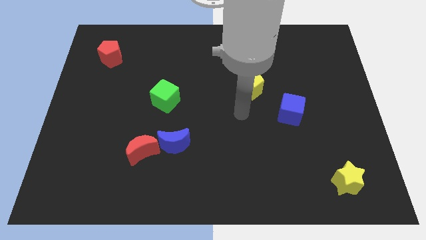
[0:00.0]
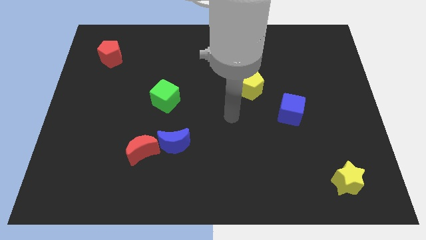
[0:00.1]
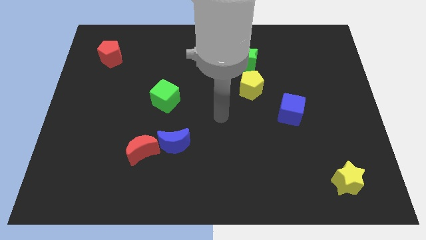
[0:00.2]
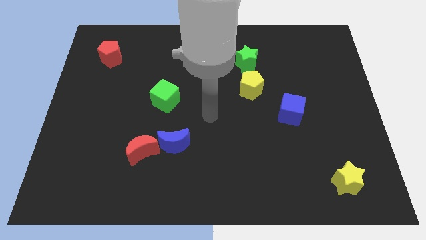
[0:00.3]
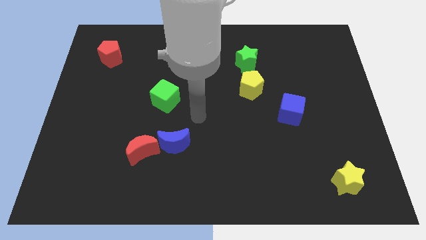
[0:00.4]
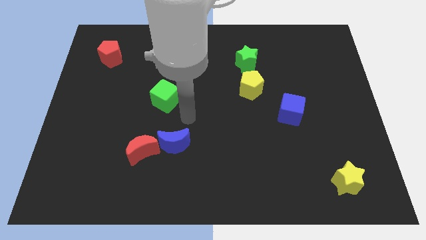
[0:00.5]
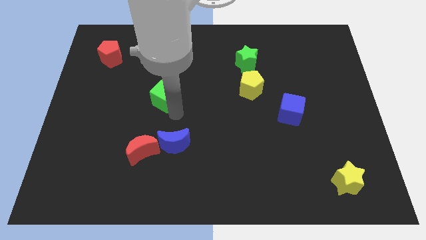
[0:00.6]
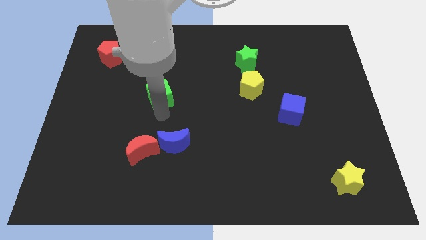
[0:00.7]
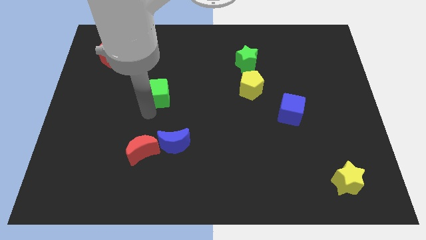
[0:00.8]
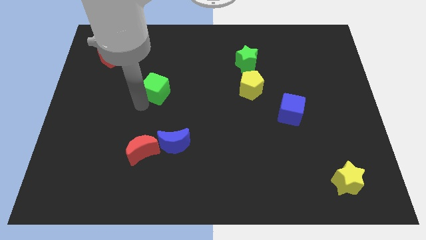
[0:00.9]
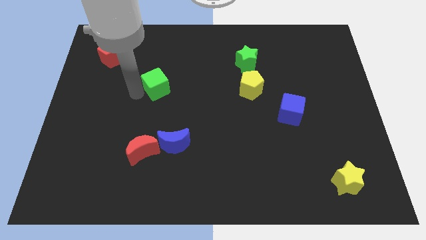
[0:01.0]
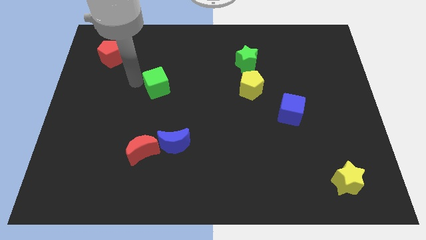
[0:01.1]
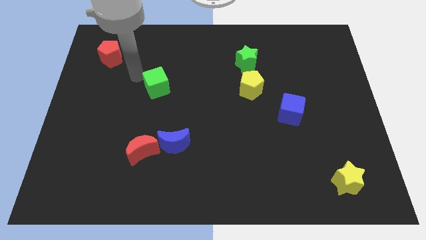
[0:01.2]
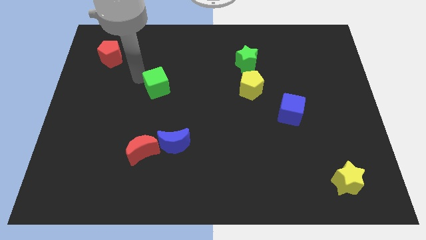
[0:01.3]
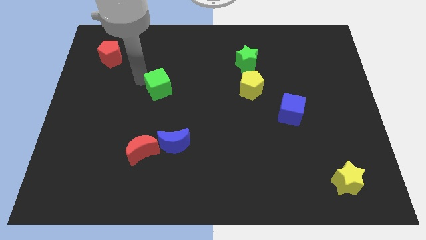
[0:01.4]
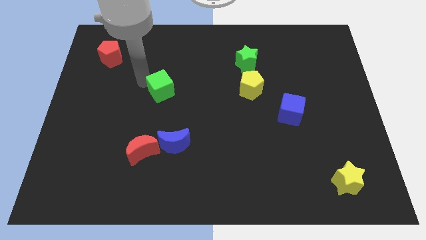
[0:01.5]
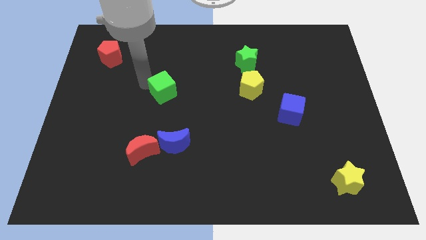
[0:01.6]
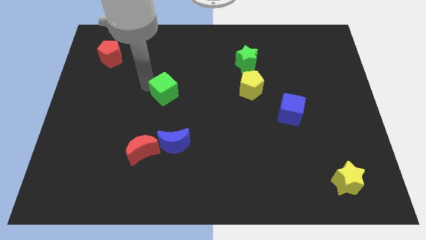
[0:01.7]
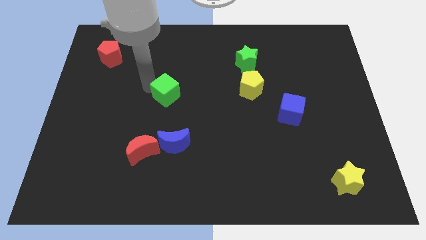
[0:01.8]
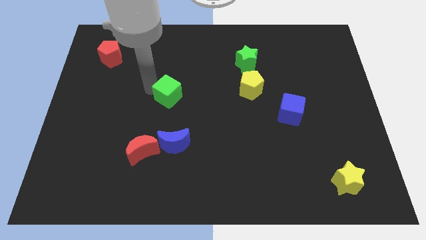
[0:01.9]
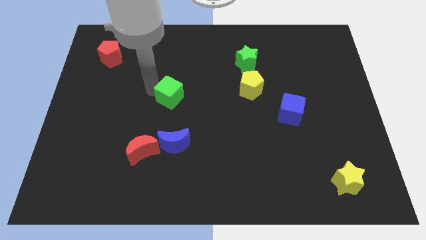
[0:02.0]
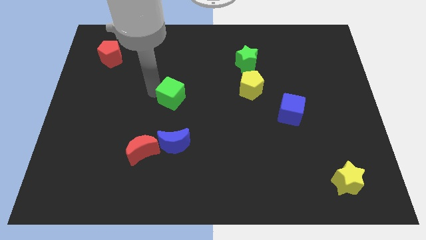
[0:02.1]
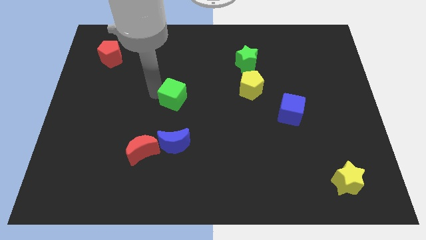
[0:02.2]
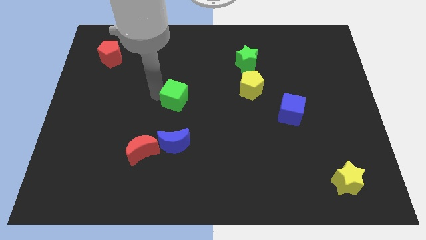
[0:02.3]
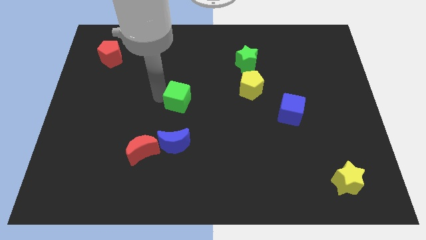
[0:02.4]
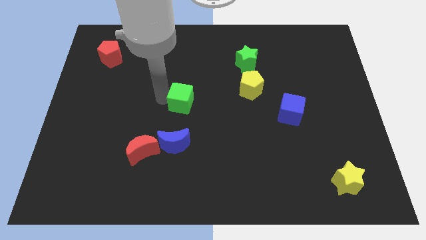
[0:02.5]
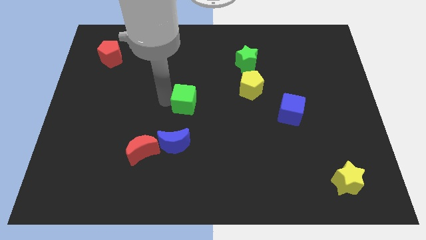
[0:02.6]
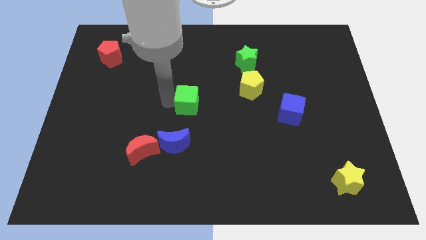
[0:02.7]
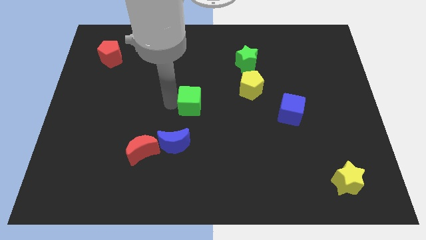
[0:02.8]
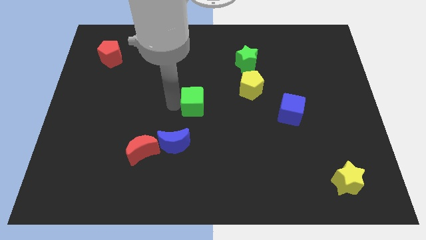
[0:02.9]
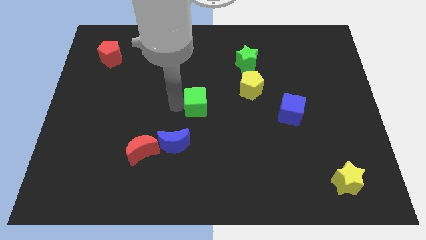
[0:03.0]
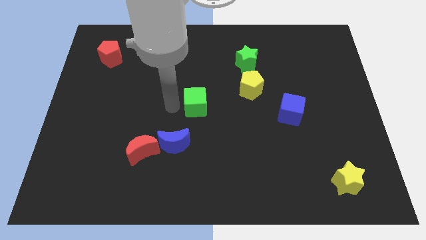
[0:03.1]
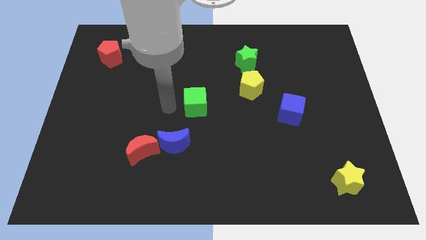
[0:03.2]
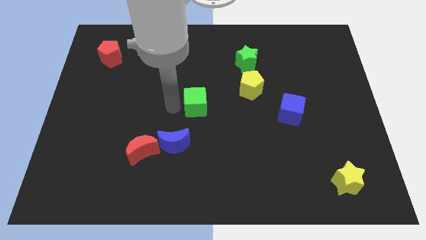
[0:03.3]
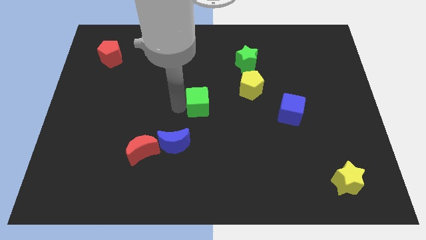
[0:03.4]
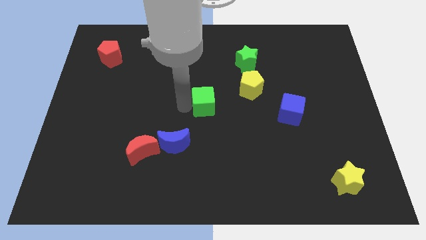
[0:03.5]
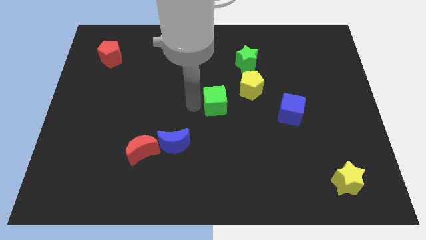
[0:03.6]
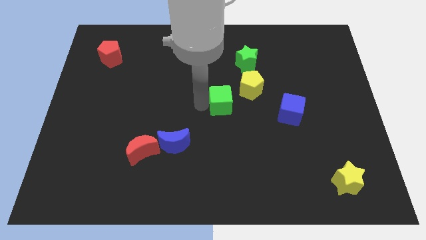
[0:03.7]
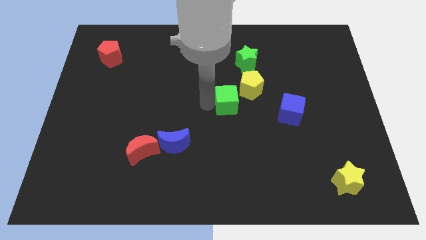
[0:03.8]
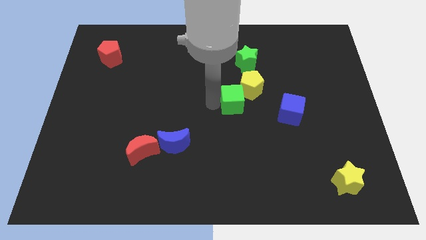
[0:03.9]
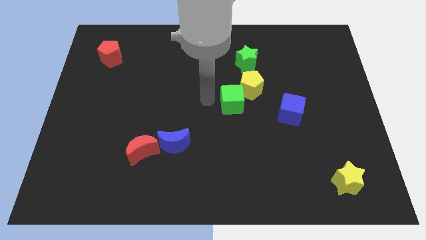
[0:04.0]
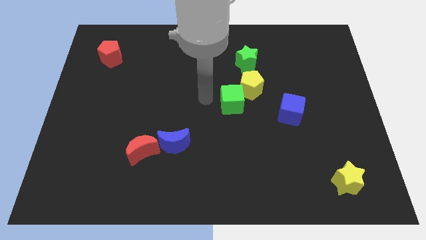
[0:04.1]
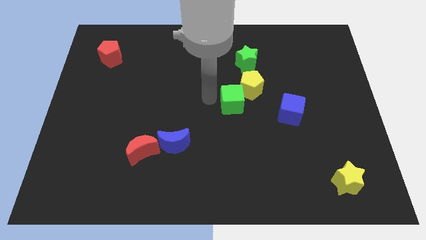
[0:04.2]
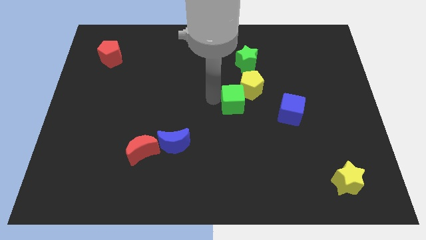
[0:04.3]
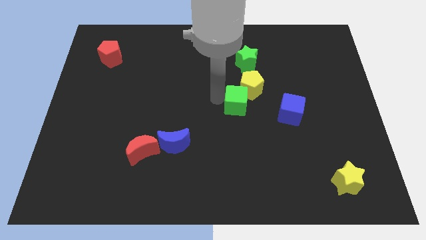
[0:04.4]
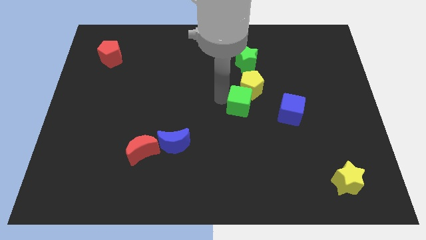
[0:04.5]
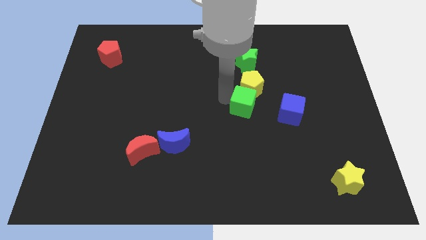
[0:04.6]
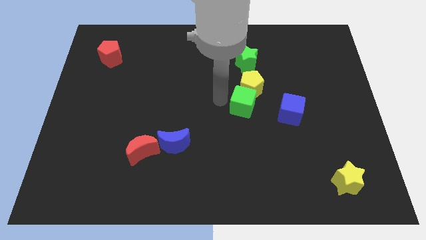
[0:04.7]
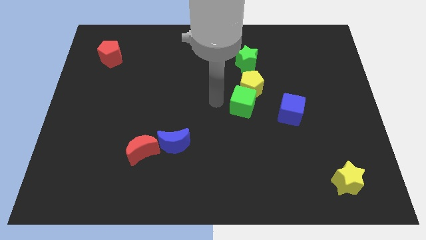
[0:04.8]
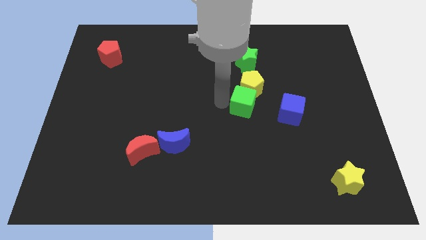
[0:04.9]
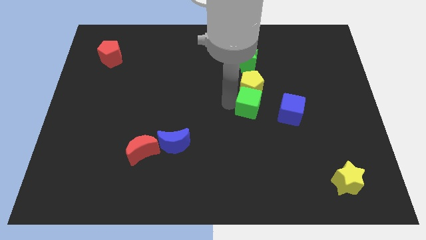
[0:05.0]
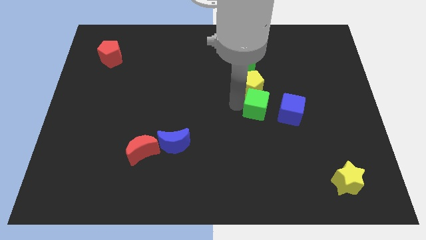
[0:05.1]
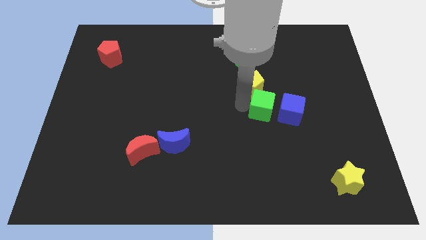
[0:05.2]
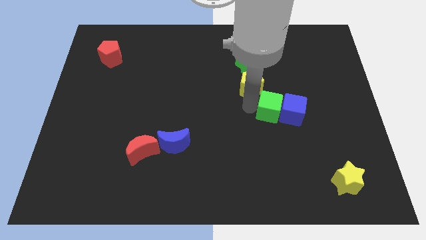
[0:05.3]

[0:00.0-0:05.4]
move the green cube close to the blue cube

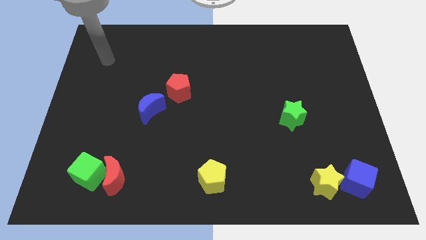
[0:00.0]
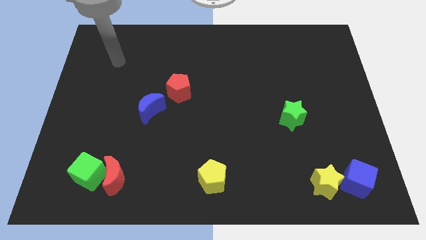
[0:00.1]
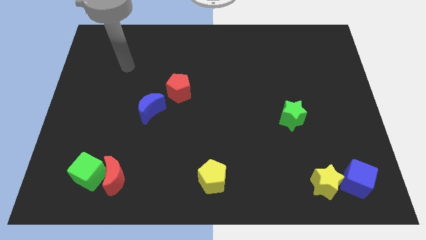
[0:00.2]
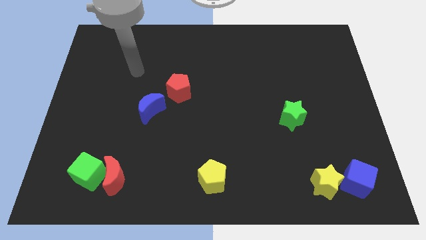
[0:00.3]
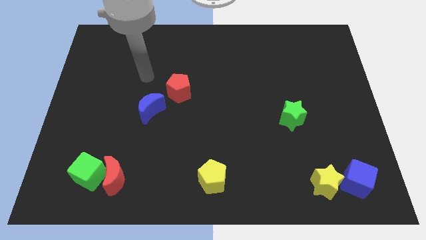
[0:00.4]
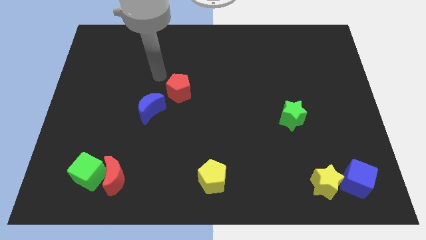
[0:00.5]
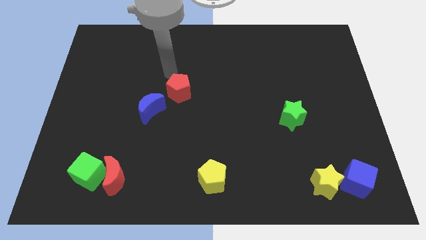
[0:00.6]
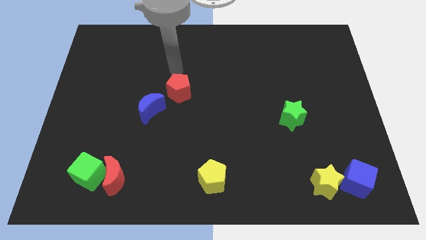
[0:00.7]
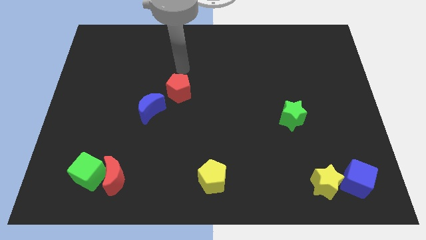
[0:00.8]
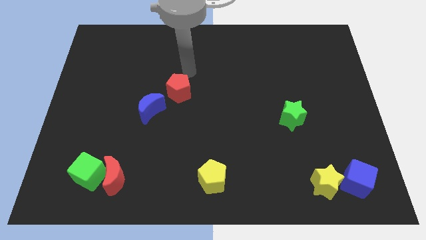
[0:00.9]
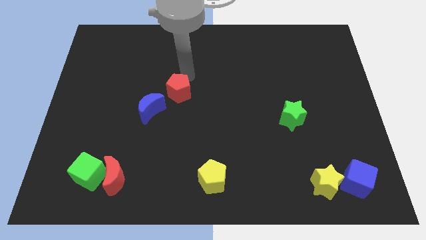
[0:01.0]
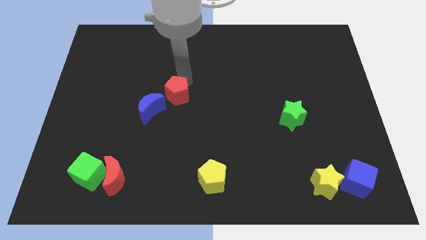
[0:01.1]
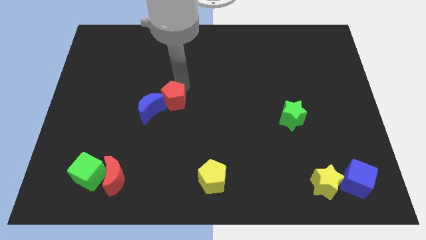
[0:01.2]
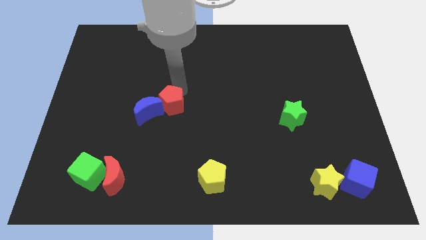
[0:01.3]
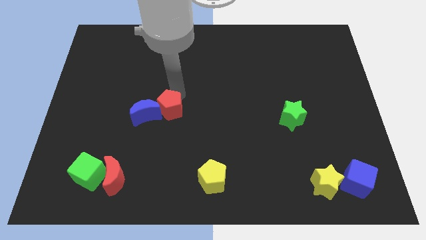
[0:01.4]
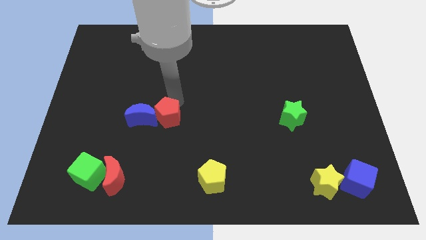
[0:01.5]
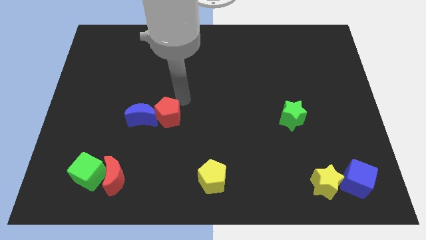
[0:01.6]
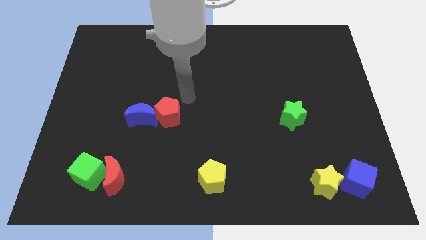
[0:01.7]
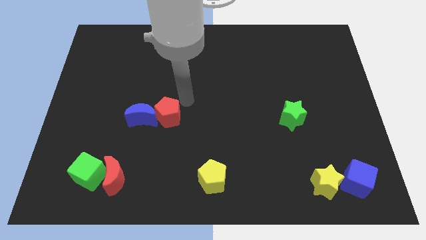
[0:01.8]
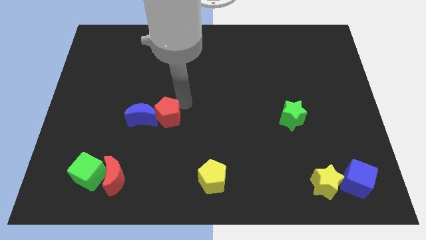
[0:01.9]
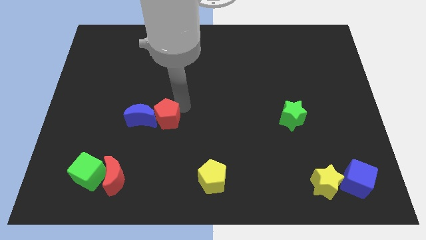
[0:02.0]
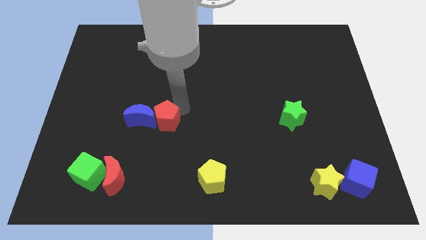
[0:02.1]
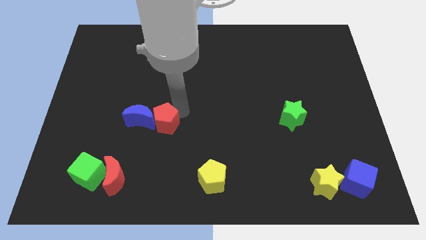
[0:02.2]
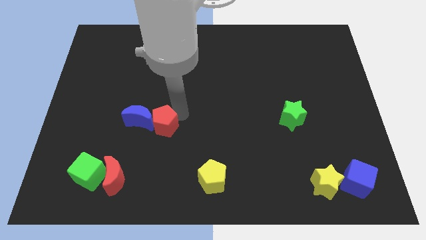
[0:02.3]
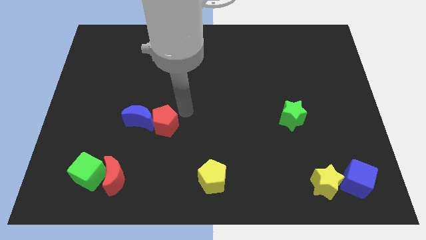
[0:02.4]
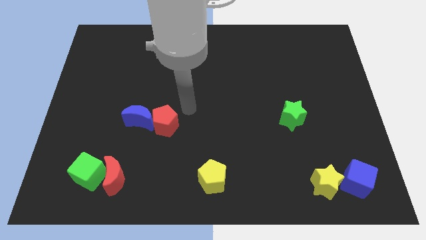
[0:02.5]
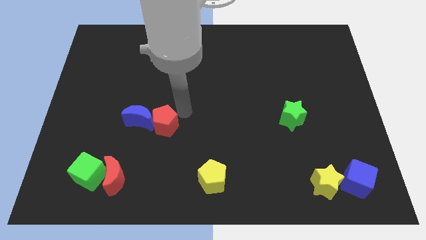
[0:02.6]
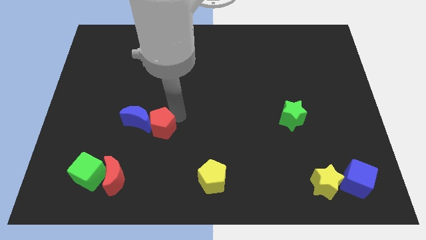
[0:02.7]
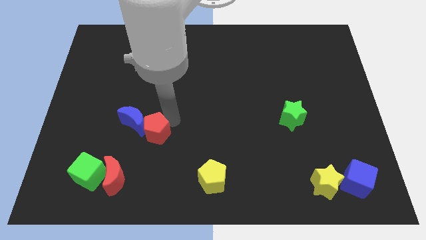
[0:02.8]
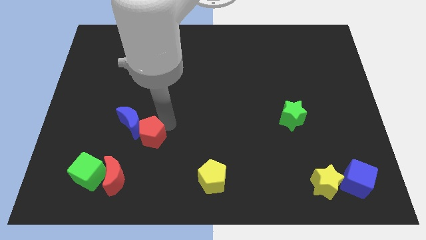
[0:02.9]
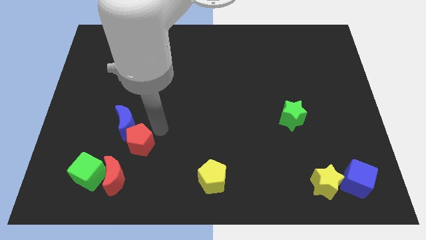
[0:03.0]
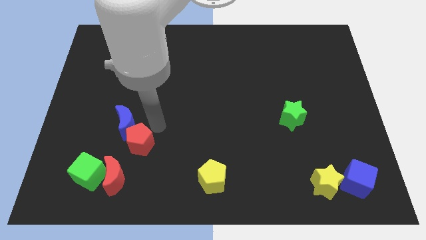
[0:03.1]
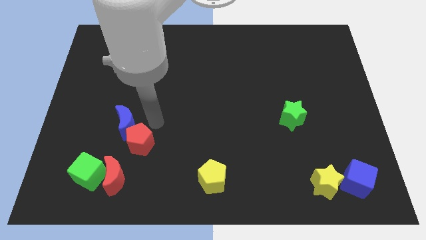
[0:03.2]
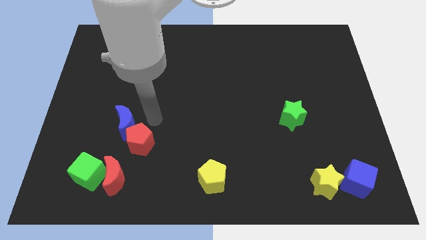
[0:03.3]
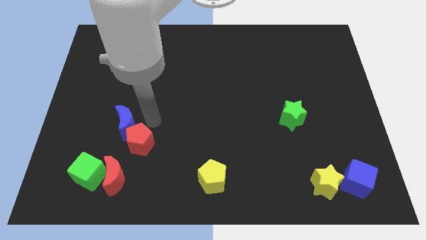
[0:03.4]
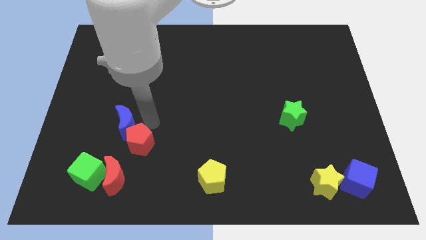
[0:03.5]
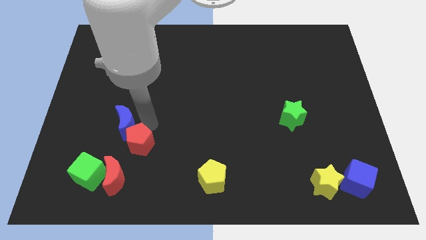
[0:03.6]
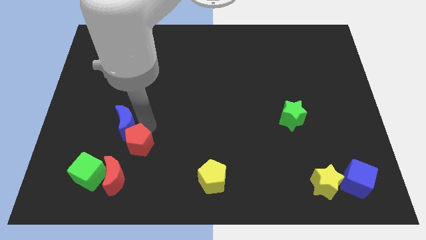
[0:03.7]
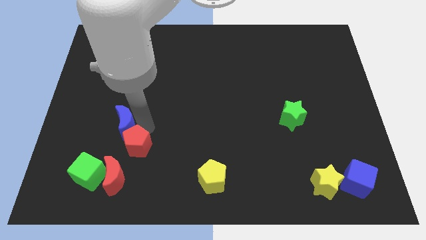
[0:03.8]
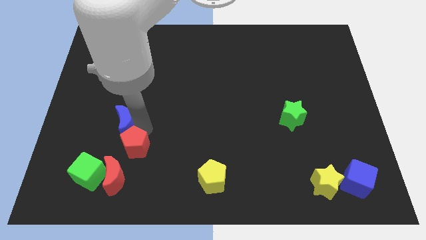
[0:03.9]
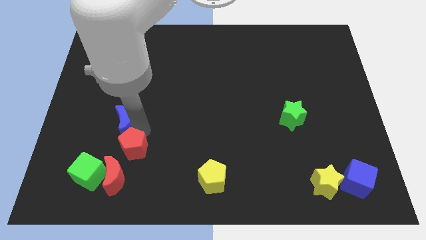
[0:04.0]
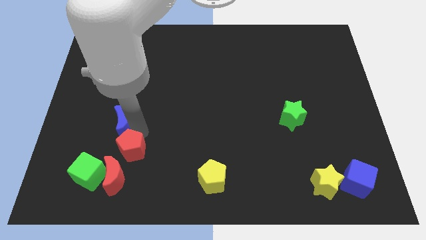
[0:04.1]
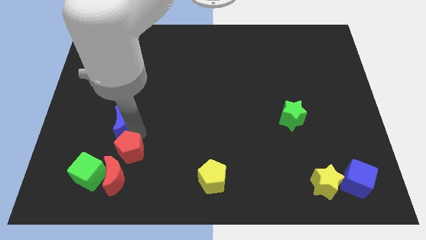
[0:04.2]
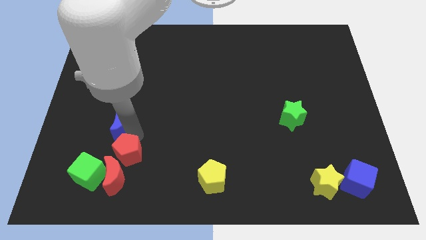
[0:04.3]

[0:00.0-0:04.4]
put the red pentagon close to the red moon
